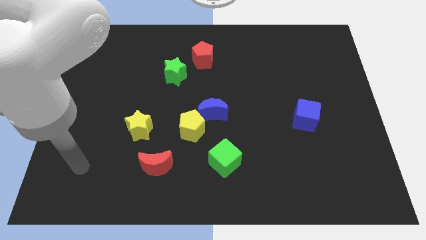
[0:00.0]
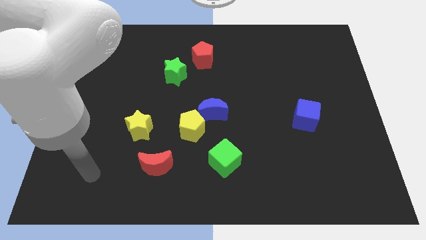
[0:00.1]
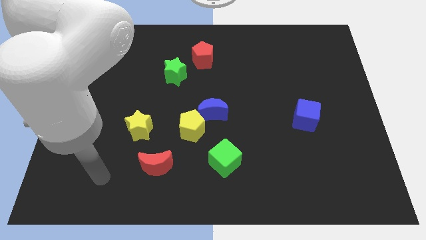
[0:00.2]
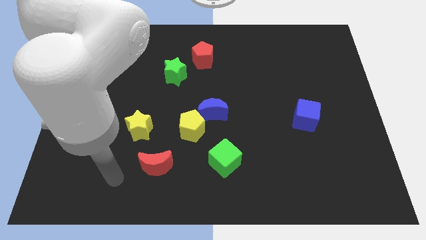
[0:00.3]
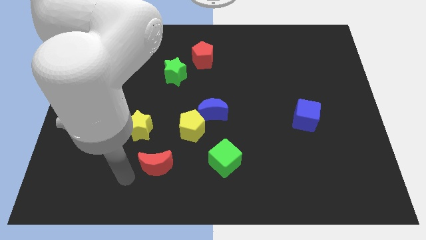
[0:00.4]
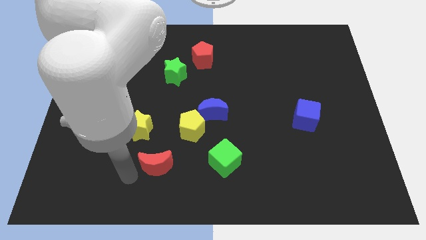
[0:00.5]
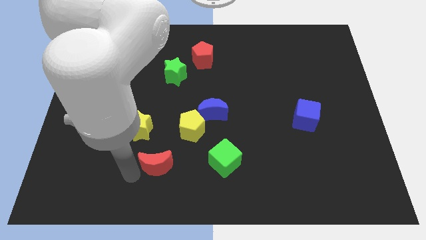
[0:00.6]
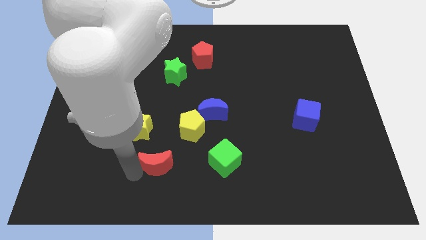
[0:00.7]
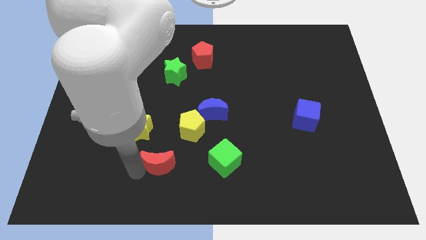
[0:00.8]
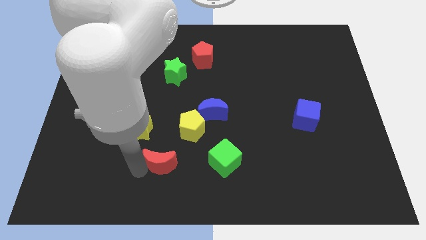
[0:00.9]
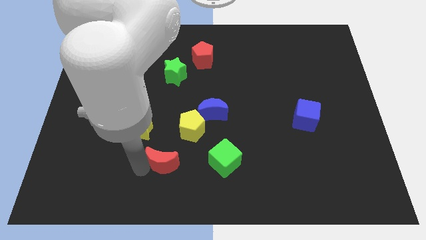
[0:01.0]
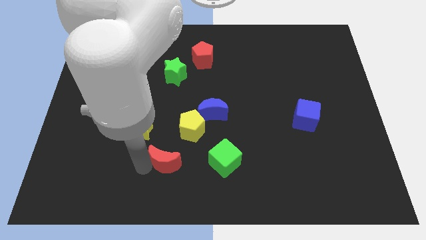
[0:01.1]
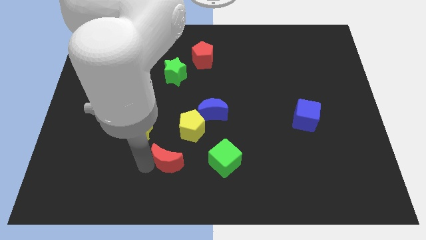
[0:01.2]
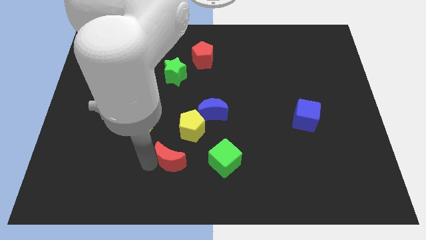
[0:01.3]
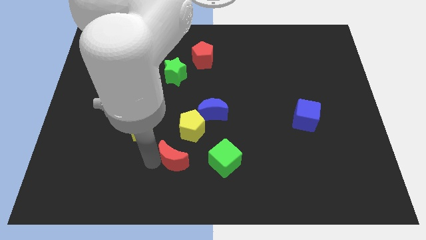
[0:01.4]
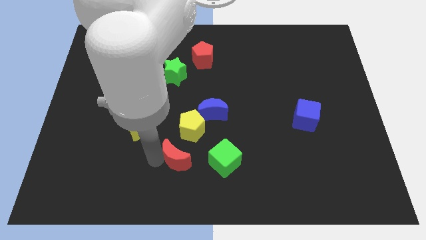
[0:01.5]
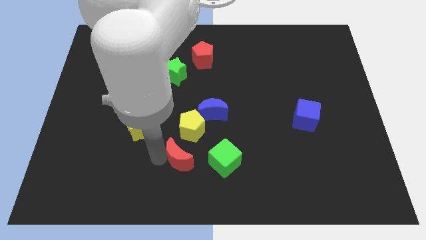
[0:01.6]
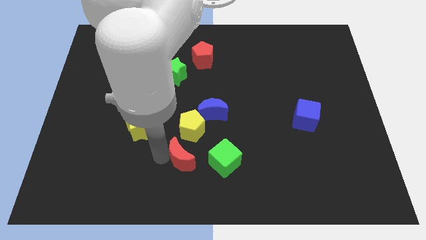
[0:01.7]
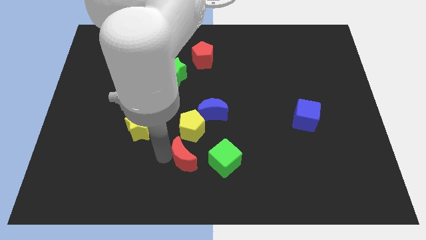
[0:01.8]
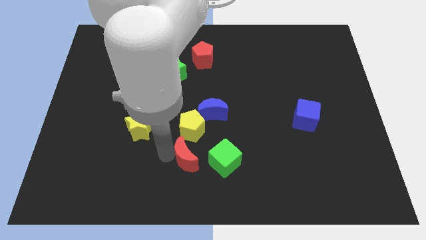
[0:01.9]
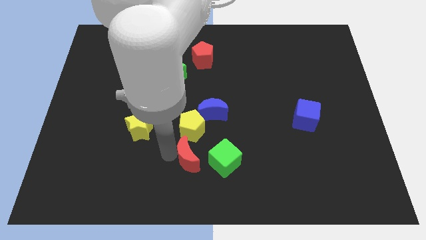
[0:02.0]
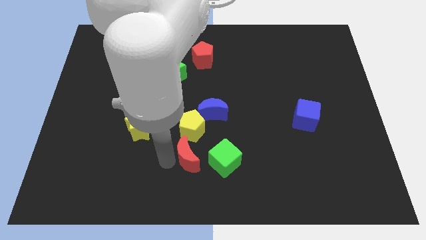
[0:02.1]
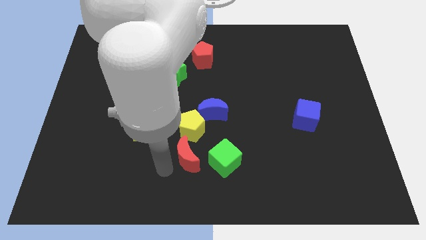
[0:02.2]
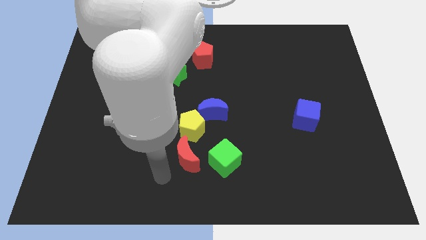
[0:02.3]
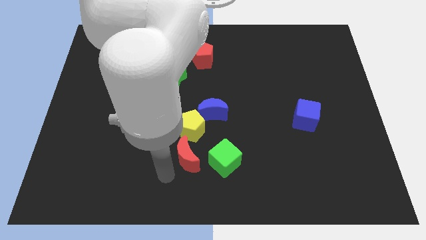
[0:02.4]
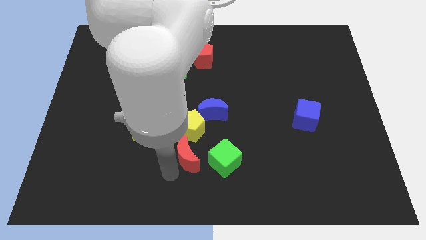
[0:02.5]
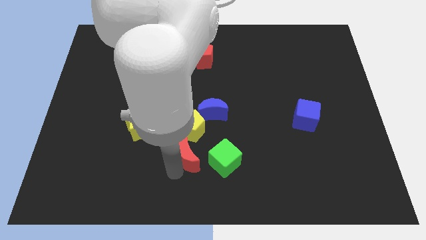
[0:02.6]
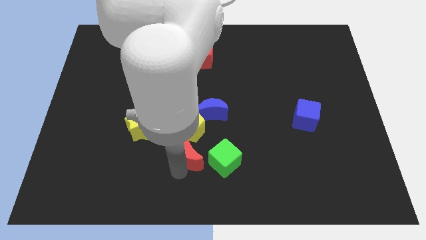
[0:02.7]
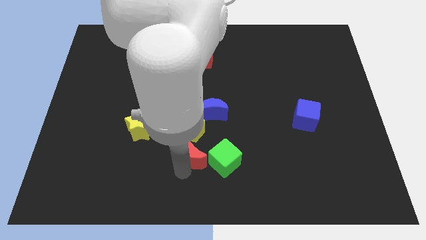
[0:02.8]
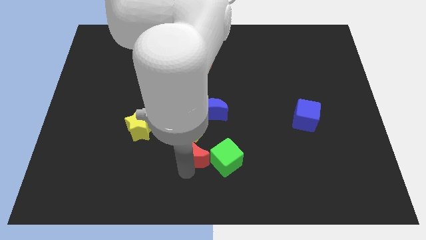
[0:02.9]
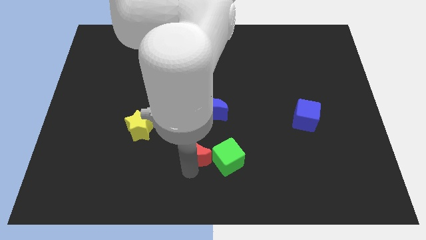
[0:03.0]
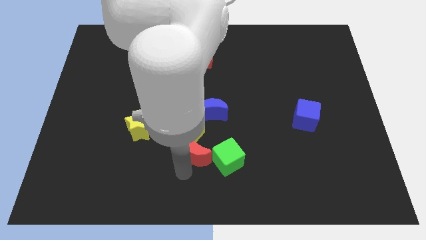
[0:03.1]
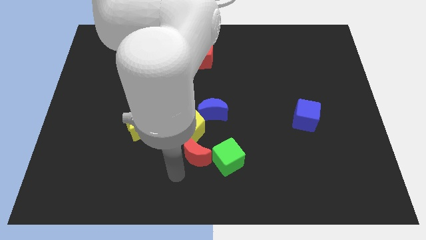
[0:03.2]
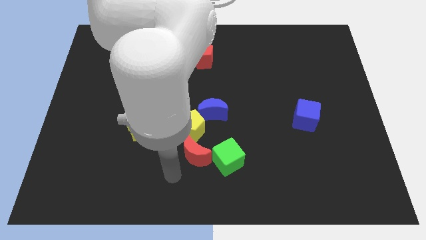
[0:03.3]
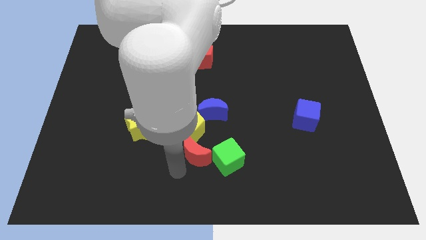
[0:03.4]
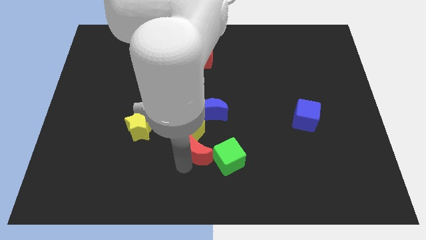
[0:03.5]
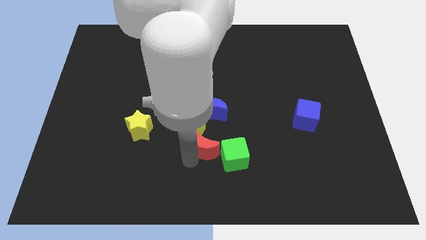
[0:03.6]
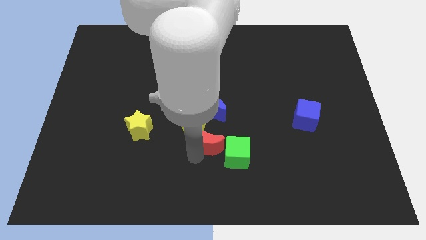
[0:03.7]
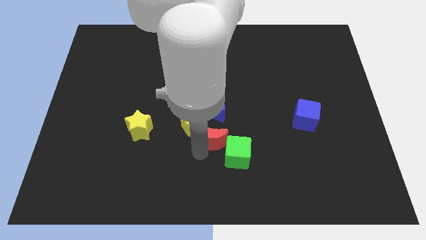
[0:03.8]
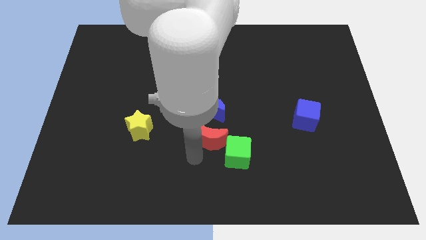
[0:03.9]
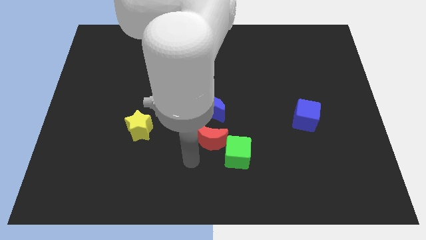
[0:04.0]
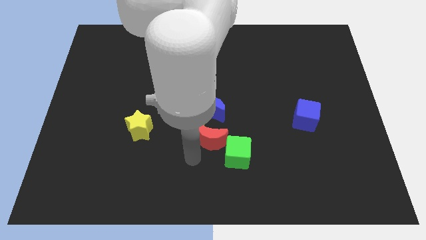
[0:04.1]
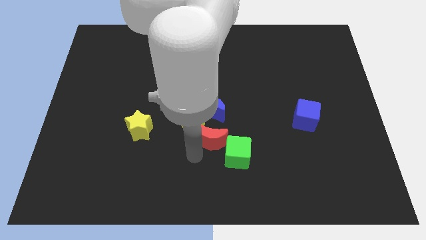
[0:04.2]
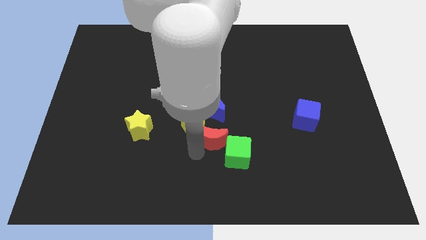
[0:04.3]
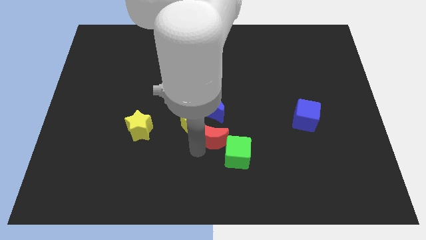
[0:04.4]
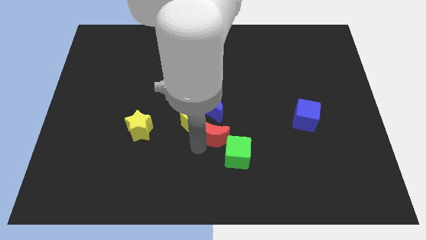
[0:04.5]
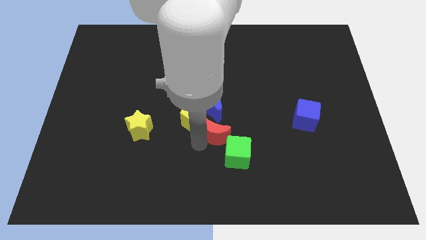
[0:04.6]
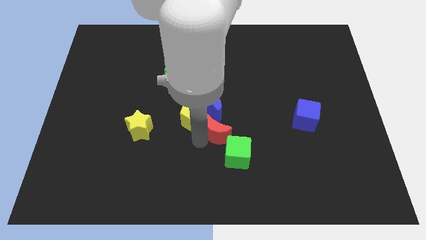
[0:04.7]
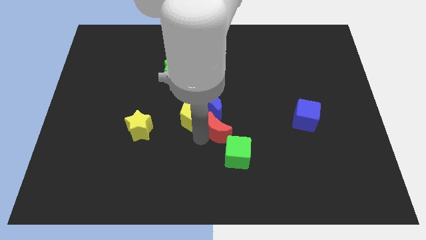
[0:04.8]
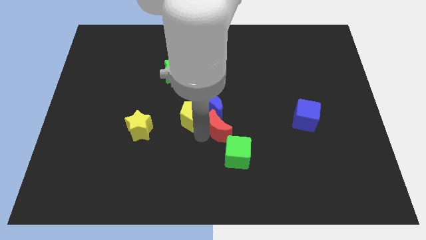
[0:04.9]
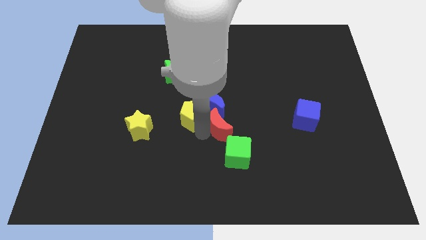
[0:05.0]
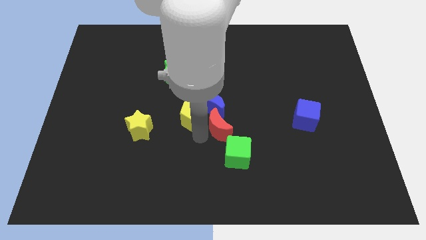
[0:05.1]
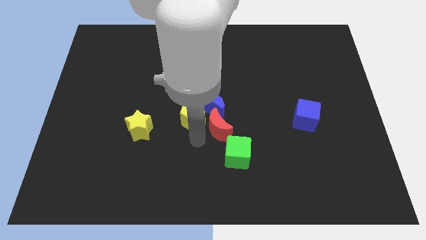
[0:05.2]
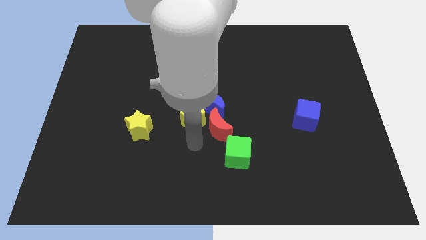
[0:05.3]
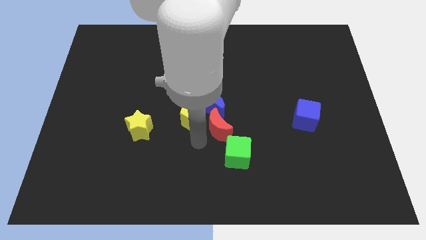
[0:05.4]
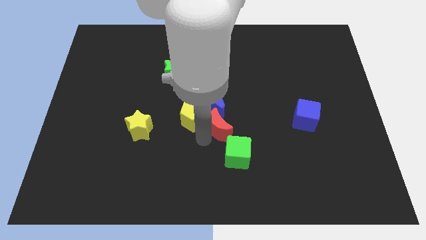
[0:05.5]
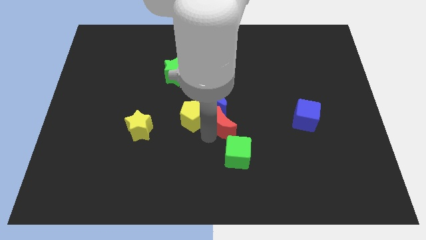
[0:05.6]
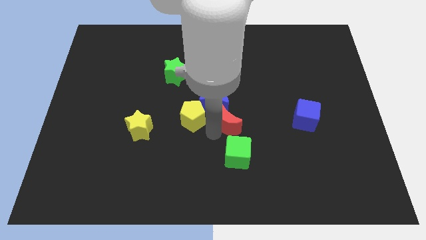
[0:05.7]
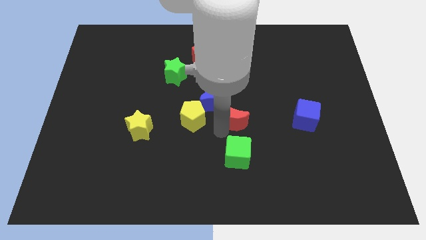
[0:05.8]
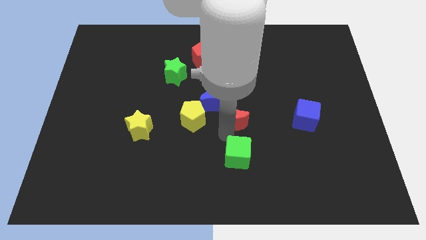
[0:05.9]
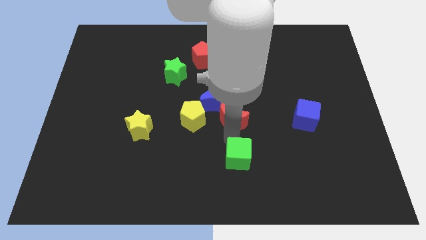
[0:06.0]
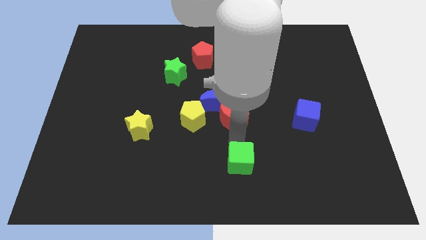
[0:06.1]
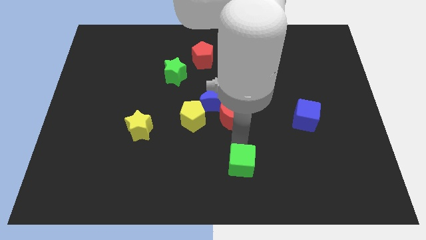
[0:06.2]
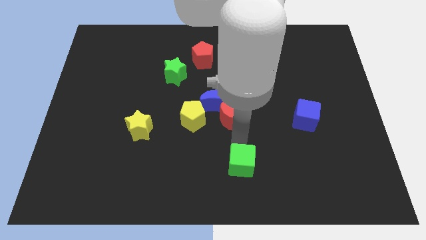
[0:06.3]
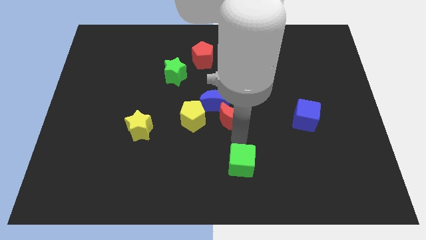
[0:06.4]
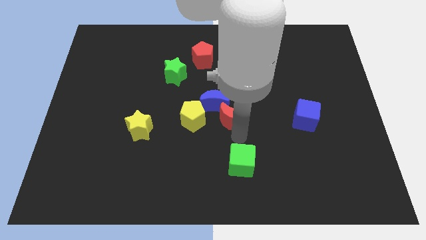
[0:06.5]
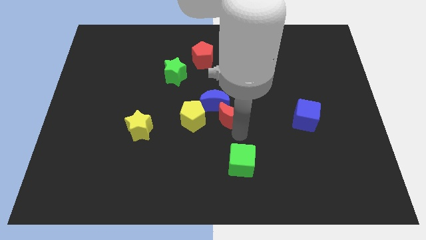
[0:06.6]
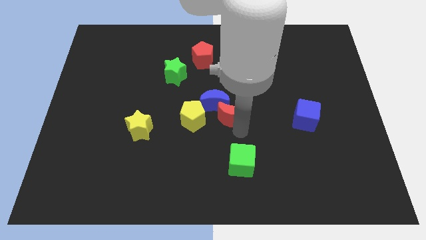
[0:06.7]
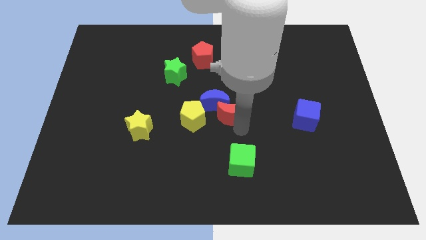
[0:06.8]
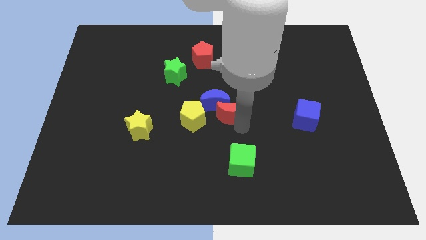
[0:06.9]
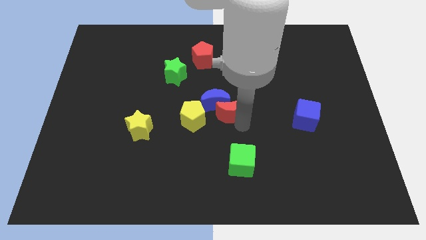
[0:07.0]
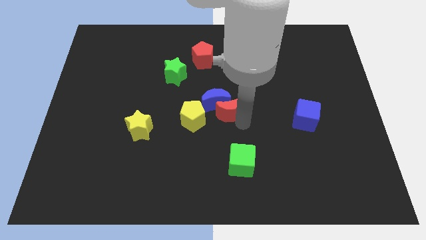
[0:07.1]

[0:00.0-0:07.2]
slide the red moon to the top right of the yellow pentagon
